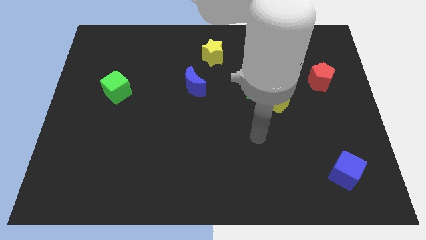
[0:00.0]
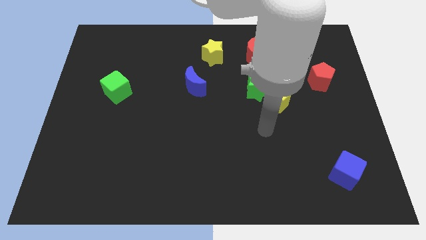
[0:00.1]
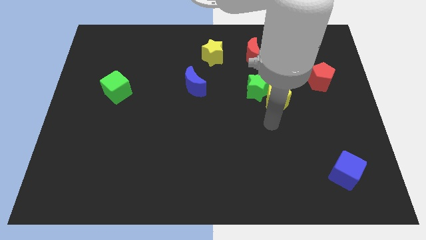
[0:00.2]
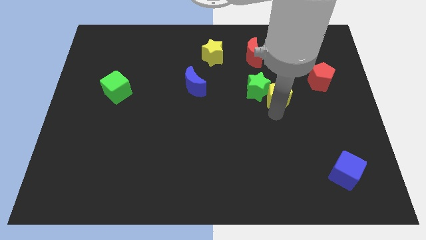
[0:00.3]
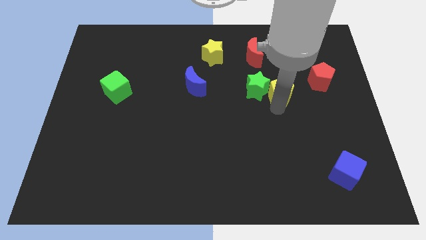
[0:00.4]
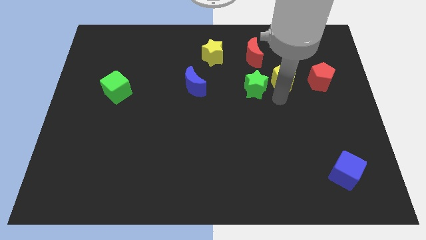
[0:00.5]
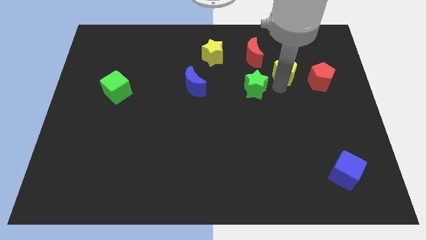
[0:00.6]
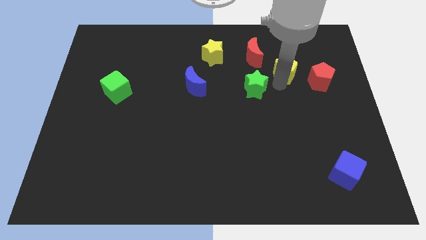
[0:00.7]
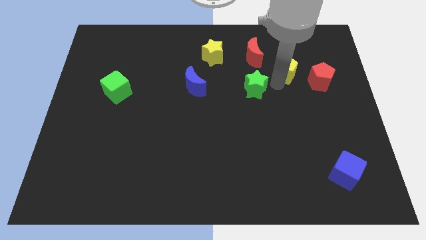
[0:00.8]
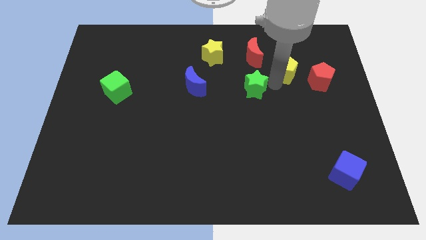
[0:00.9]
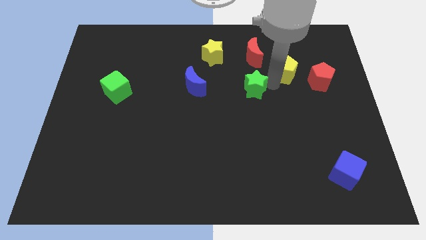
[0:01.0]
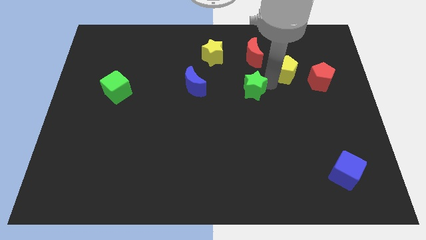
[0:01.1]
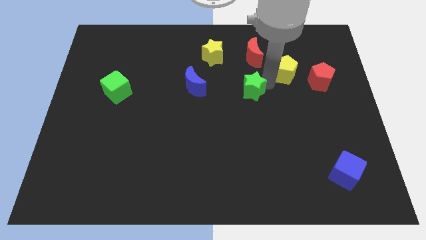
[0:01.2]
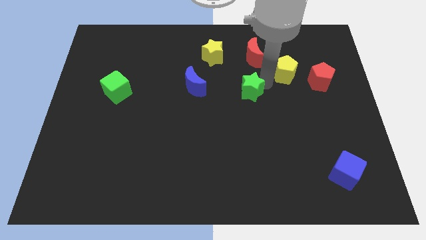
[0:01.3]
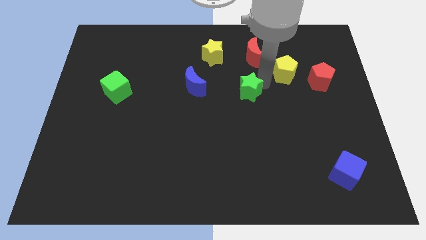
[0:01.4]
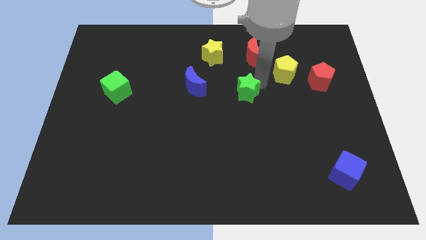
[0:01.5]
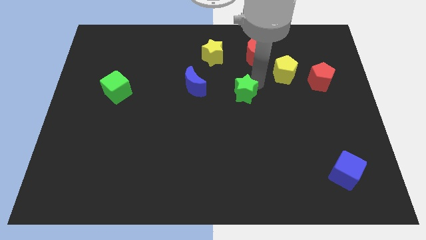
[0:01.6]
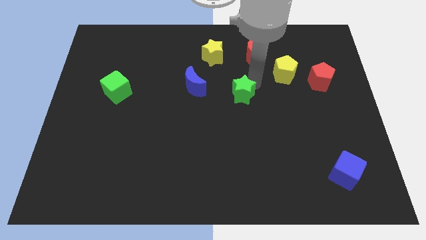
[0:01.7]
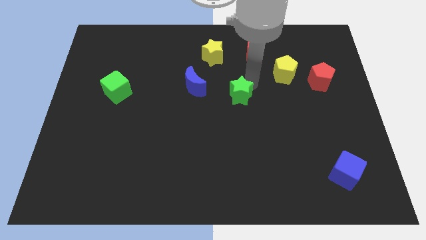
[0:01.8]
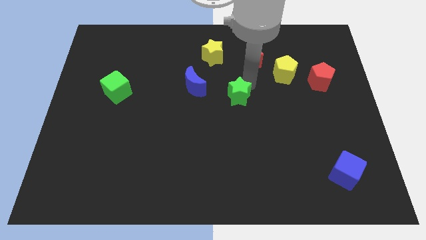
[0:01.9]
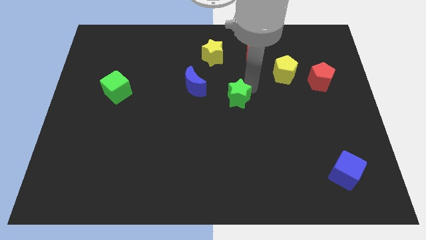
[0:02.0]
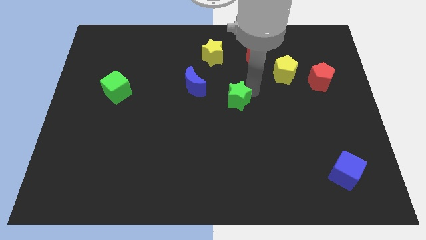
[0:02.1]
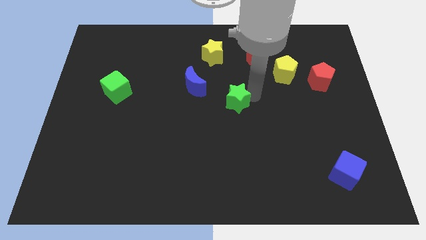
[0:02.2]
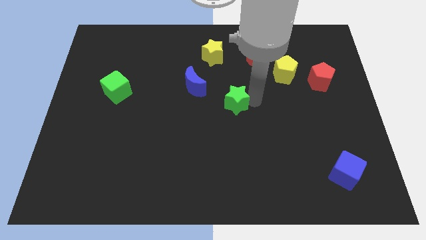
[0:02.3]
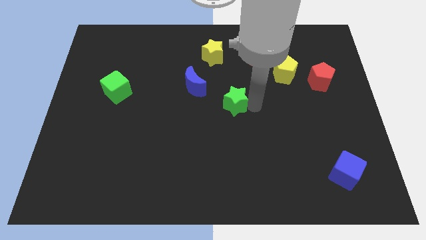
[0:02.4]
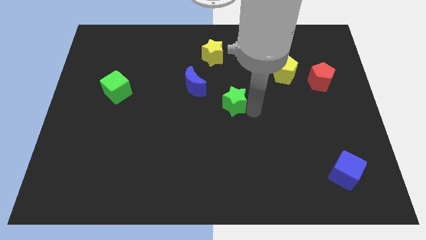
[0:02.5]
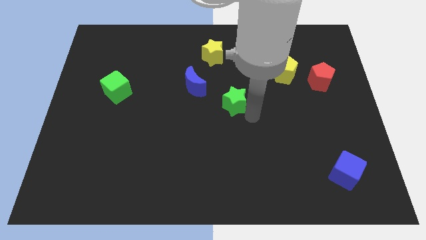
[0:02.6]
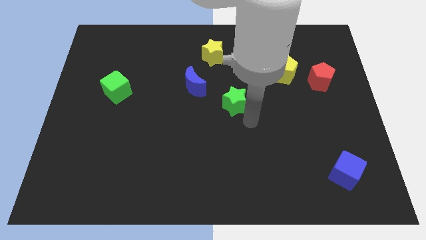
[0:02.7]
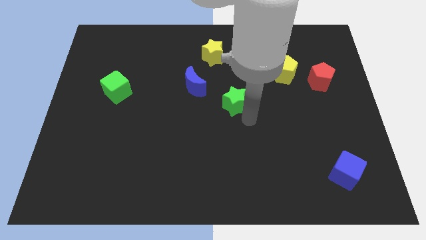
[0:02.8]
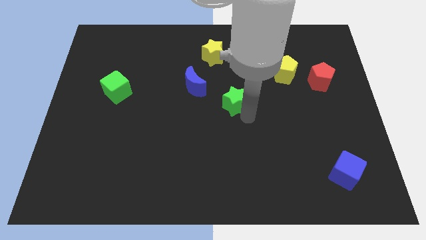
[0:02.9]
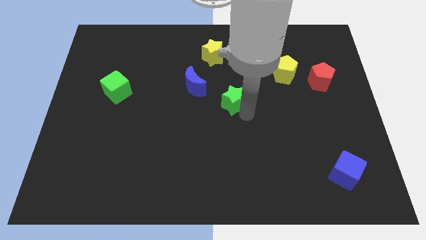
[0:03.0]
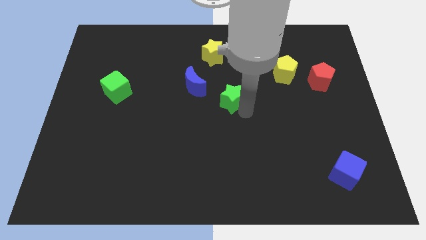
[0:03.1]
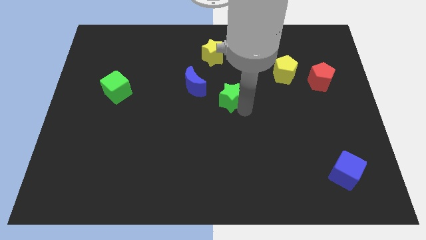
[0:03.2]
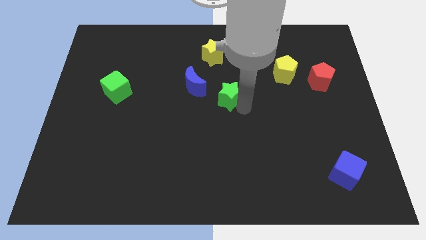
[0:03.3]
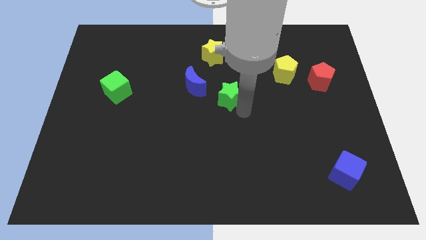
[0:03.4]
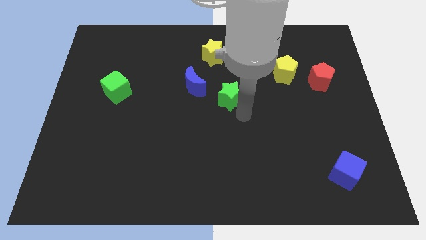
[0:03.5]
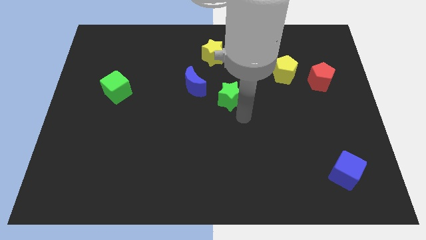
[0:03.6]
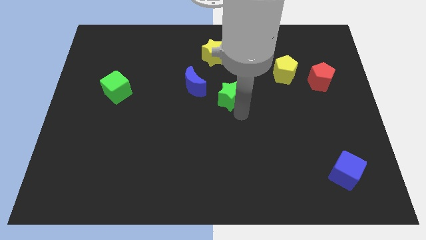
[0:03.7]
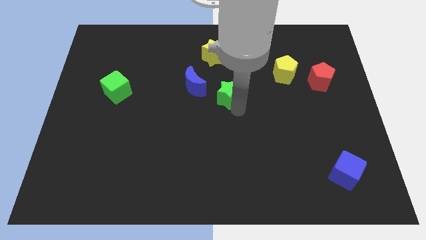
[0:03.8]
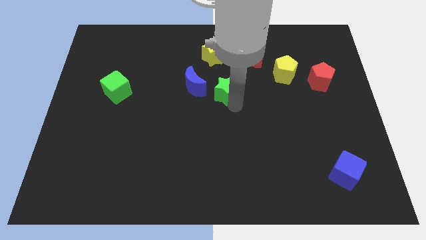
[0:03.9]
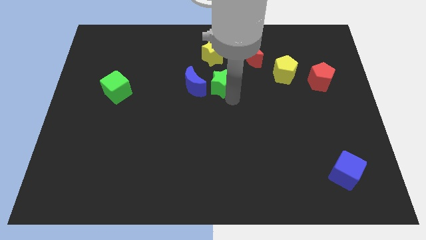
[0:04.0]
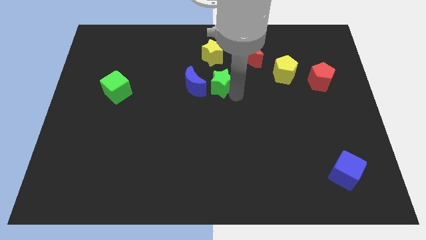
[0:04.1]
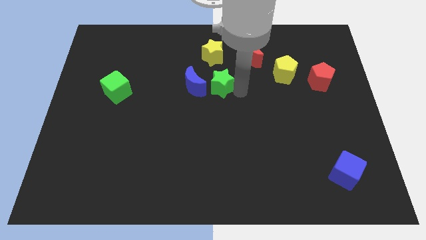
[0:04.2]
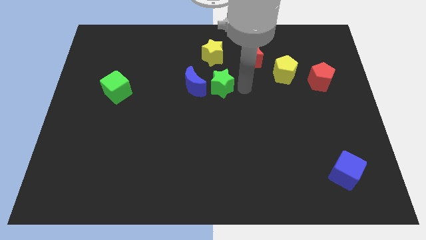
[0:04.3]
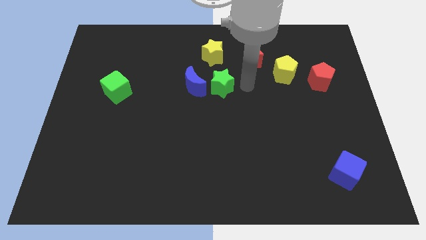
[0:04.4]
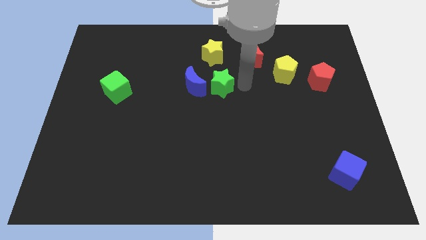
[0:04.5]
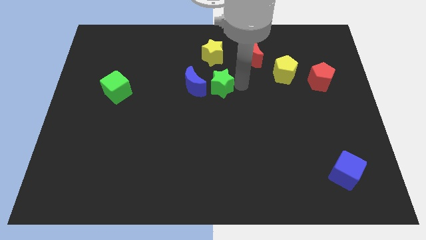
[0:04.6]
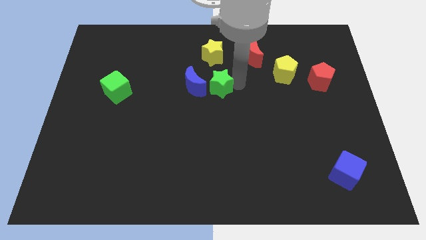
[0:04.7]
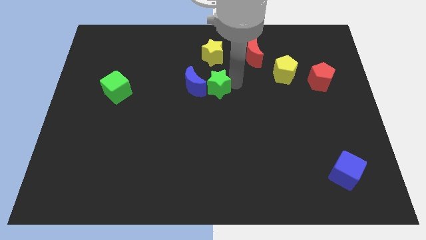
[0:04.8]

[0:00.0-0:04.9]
move the green star close to the blue moon

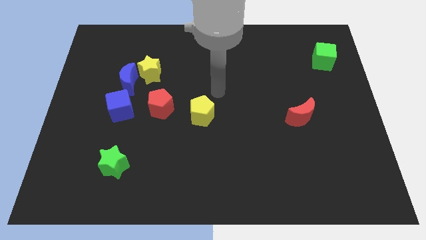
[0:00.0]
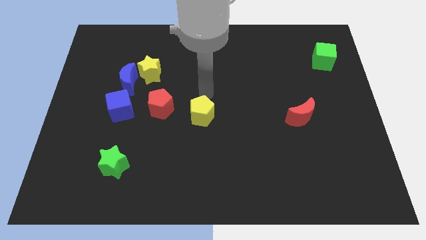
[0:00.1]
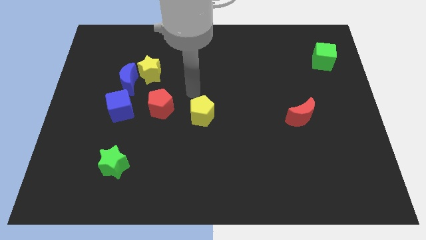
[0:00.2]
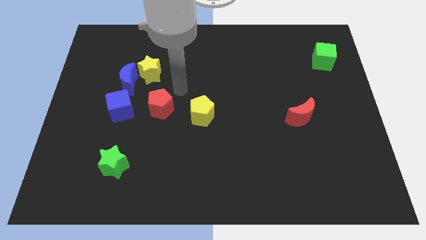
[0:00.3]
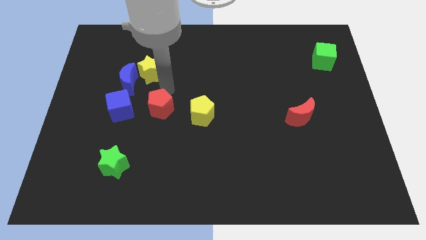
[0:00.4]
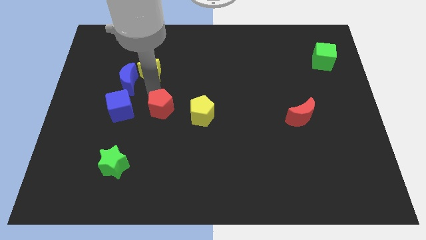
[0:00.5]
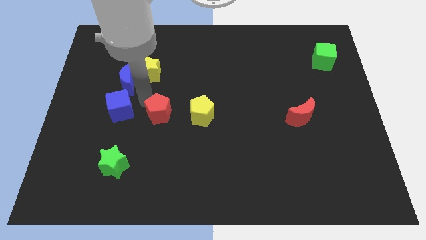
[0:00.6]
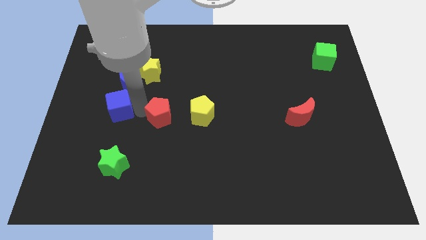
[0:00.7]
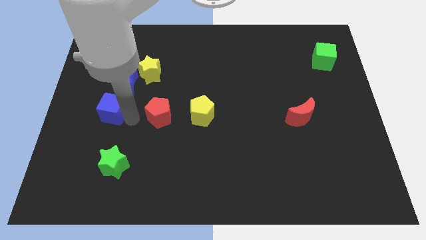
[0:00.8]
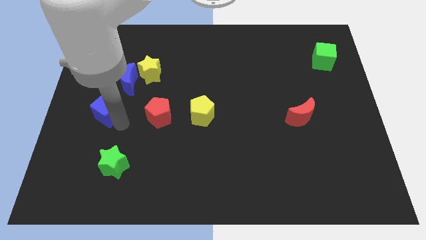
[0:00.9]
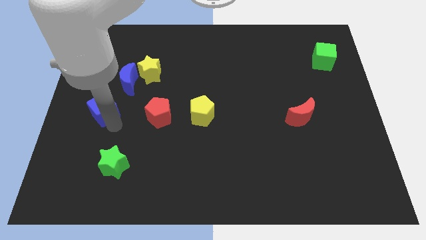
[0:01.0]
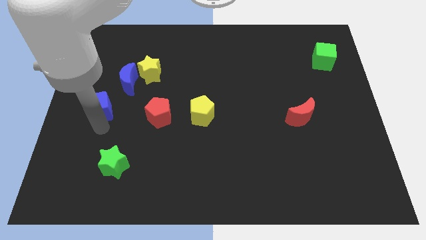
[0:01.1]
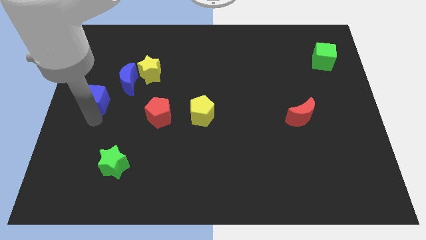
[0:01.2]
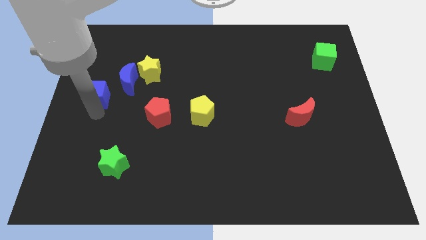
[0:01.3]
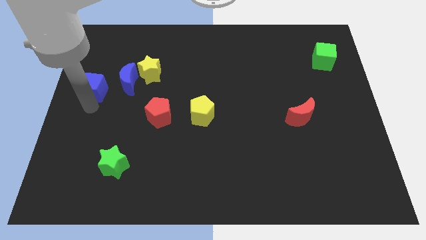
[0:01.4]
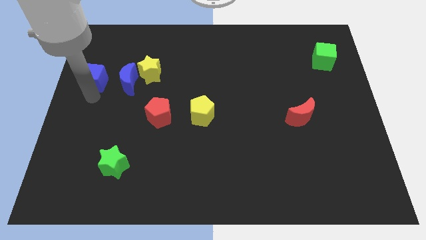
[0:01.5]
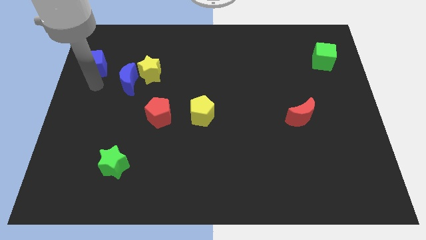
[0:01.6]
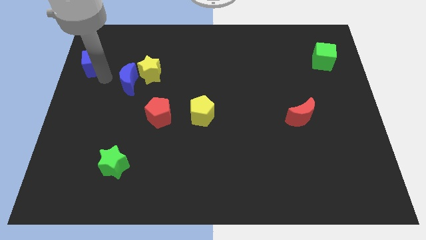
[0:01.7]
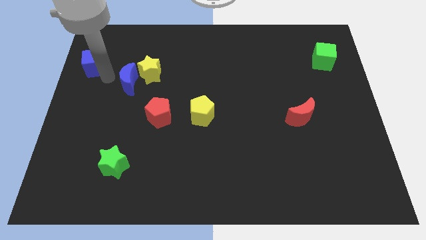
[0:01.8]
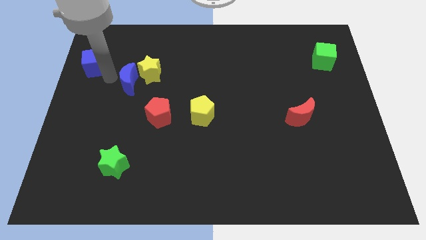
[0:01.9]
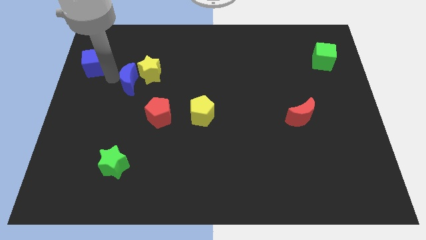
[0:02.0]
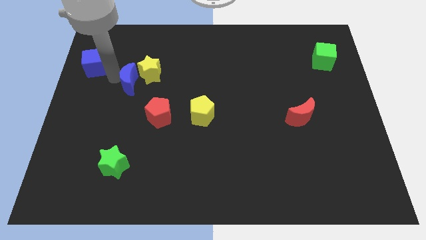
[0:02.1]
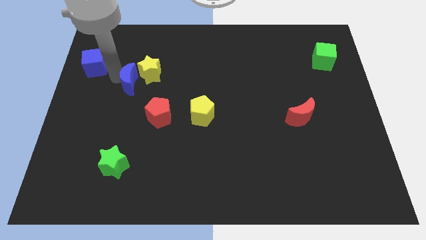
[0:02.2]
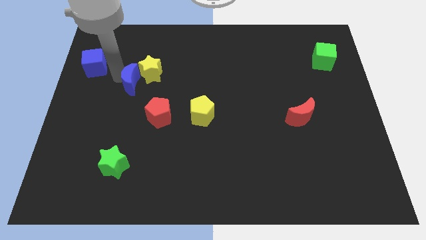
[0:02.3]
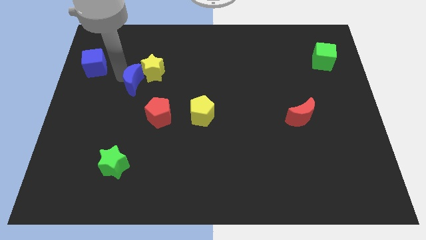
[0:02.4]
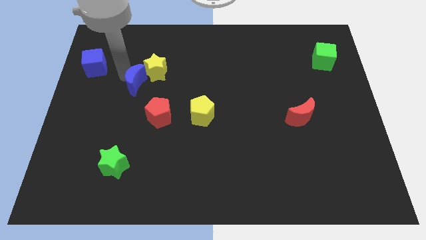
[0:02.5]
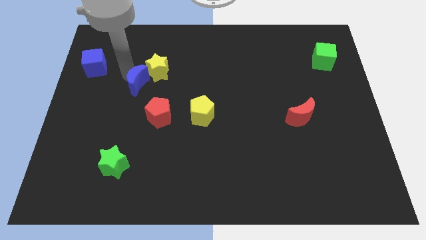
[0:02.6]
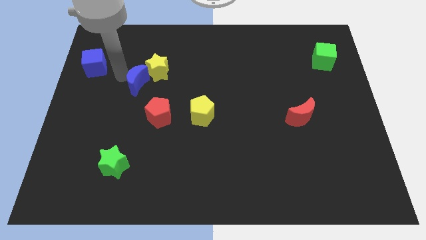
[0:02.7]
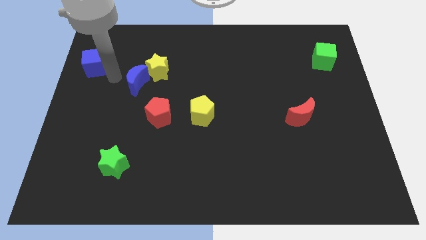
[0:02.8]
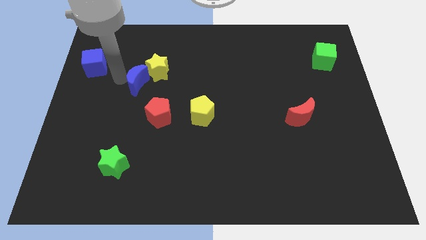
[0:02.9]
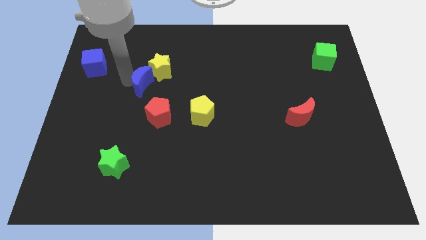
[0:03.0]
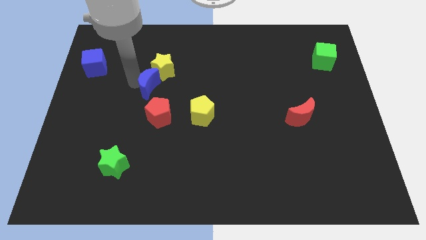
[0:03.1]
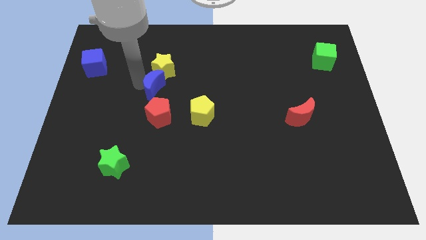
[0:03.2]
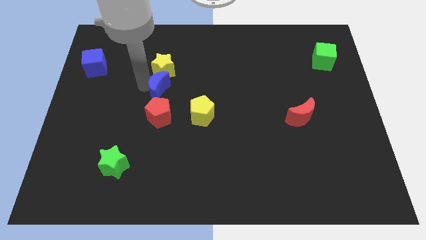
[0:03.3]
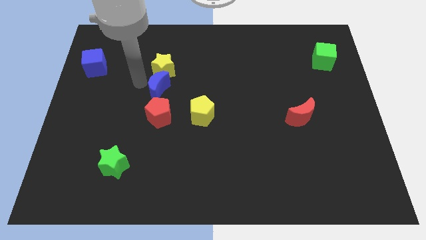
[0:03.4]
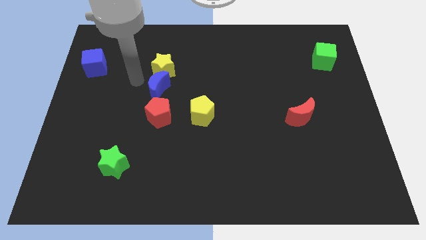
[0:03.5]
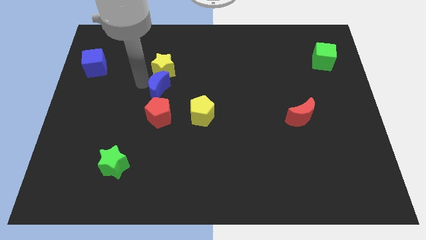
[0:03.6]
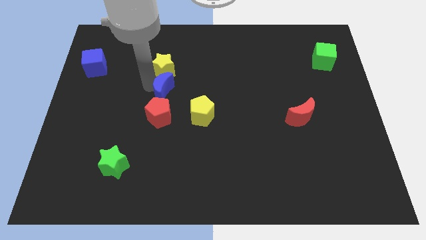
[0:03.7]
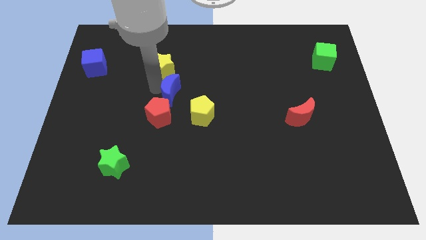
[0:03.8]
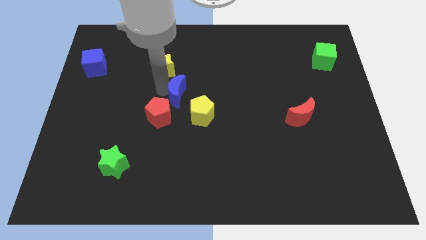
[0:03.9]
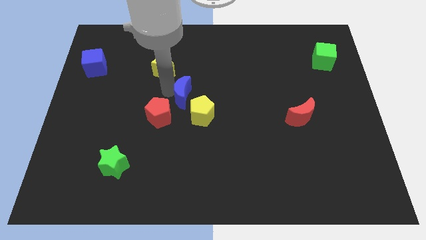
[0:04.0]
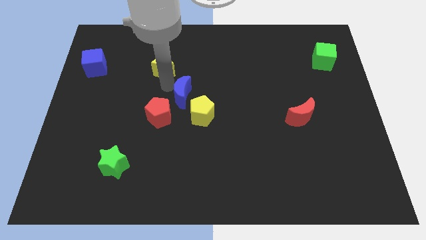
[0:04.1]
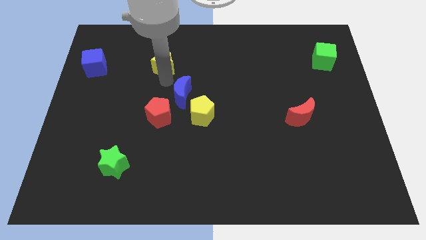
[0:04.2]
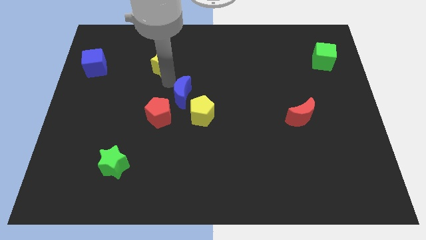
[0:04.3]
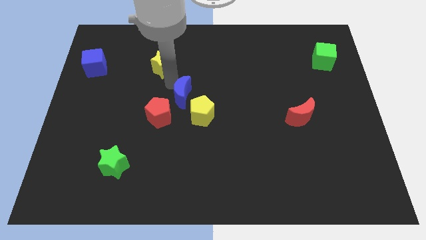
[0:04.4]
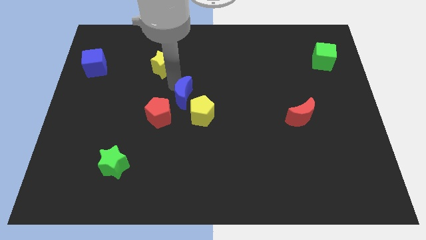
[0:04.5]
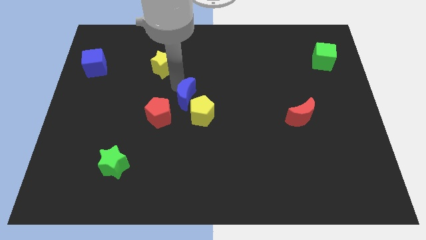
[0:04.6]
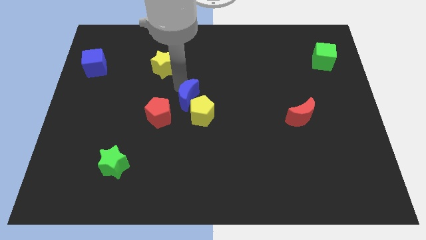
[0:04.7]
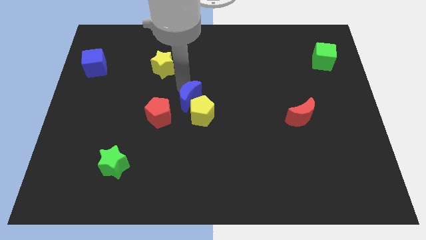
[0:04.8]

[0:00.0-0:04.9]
put the blue moon to the yellow pentagon
